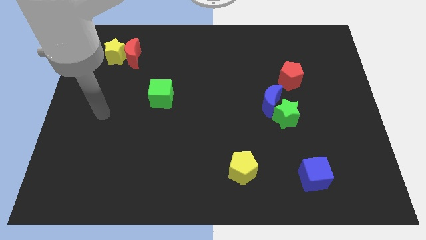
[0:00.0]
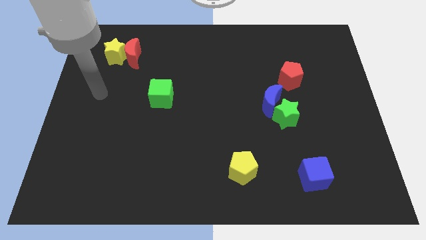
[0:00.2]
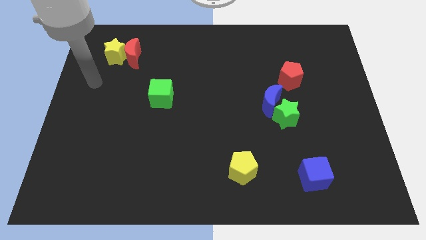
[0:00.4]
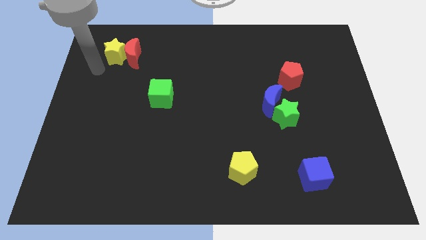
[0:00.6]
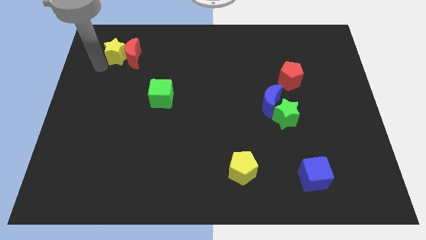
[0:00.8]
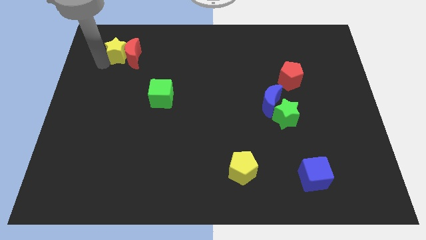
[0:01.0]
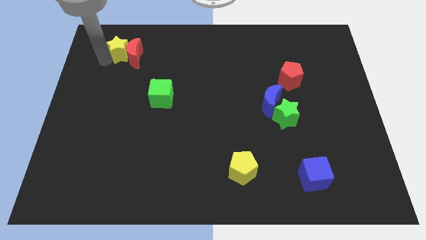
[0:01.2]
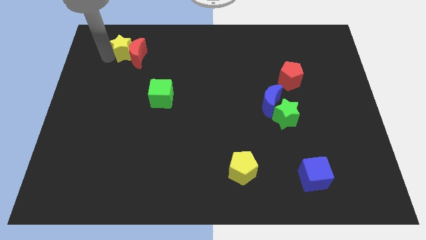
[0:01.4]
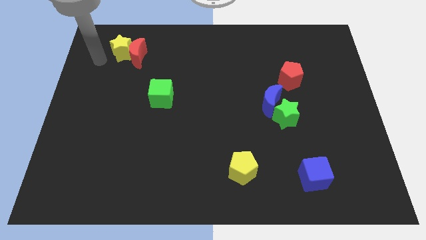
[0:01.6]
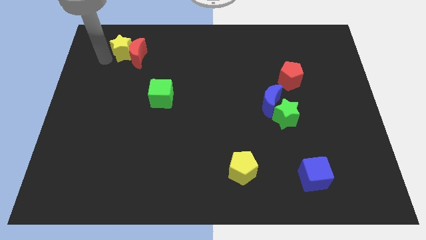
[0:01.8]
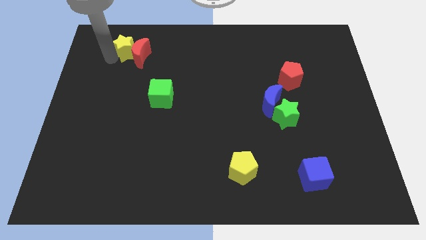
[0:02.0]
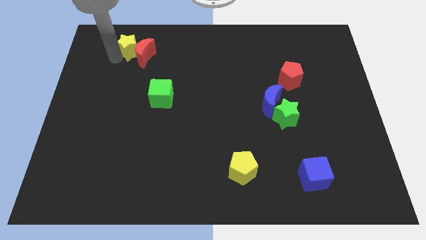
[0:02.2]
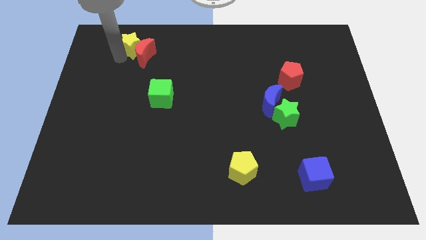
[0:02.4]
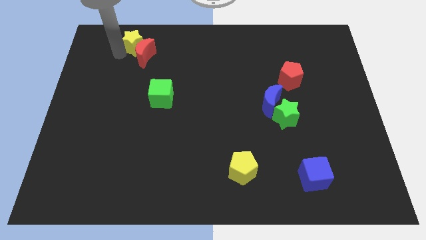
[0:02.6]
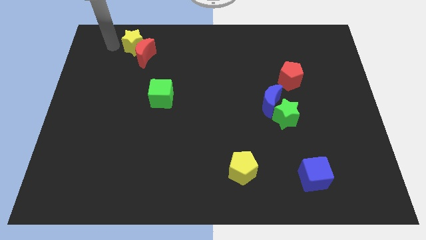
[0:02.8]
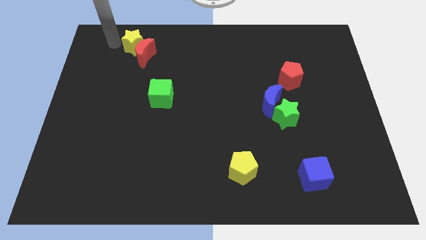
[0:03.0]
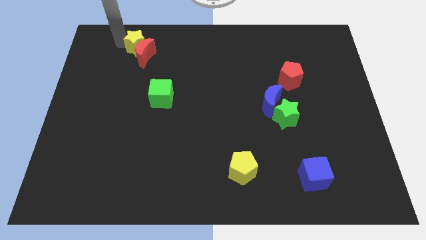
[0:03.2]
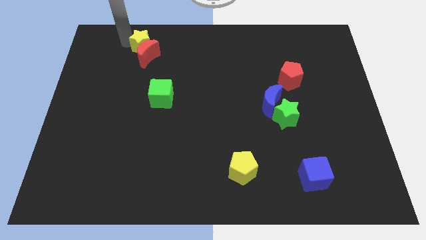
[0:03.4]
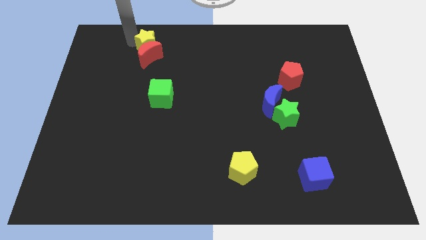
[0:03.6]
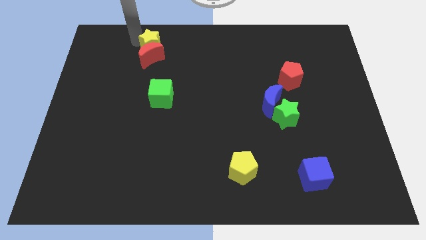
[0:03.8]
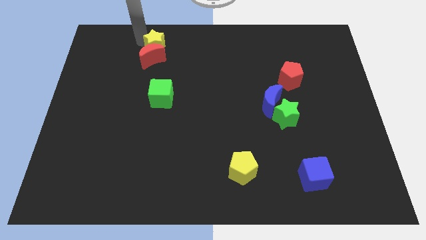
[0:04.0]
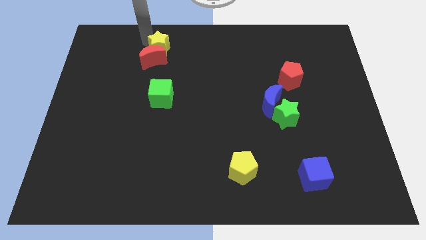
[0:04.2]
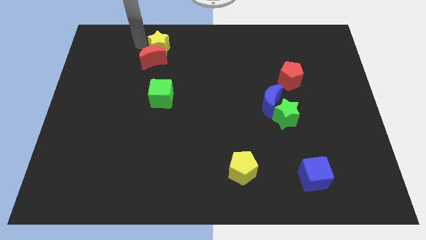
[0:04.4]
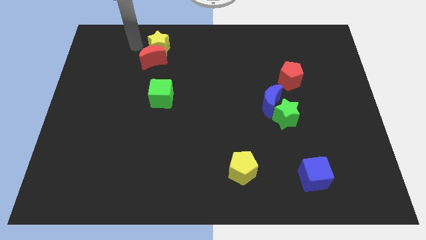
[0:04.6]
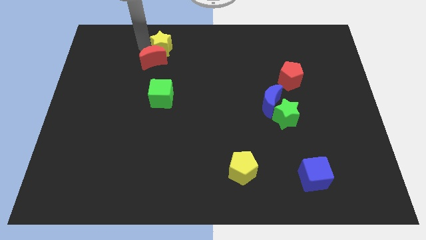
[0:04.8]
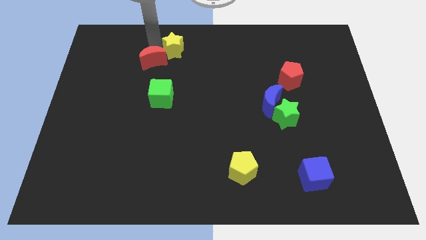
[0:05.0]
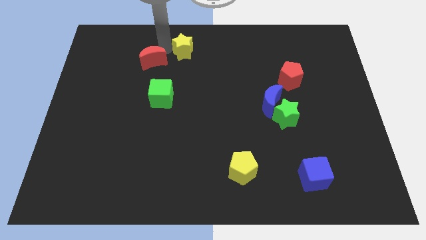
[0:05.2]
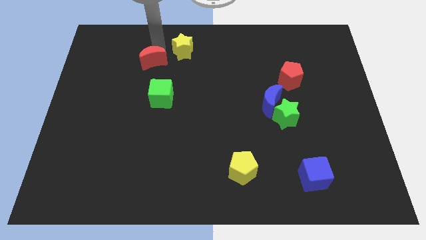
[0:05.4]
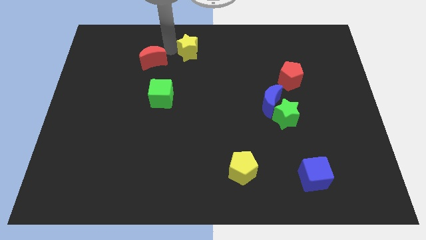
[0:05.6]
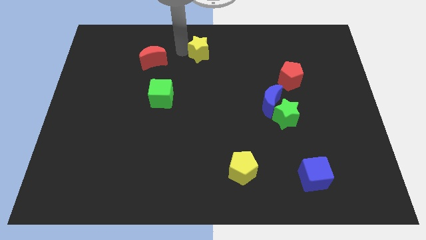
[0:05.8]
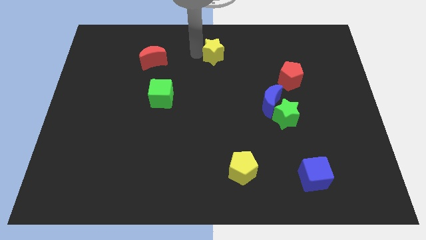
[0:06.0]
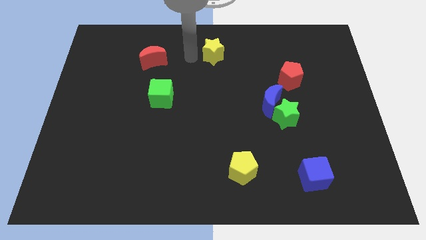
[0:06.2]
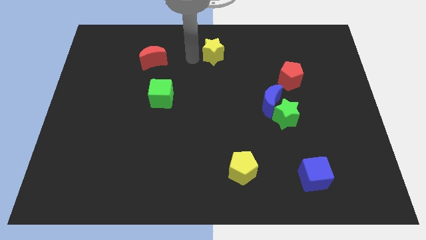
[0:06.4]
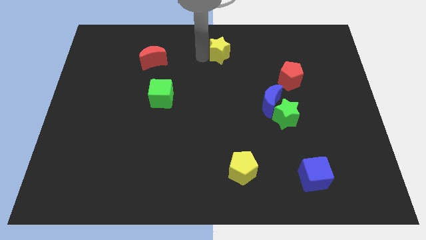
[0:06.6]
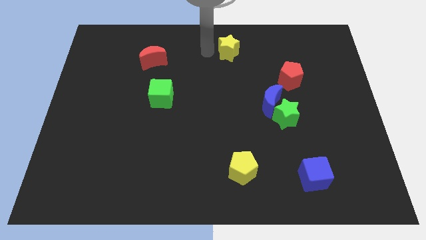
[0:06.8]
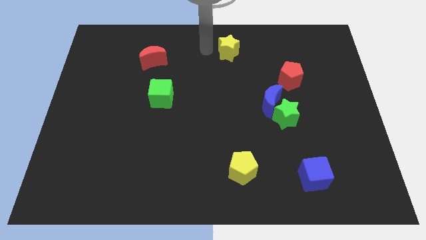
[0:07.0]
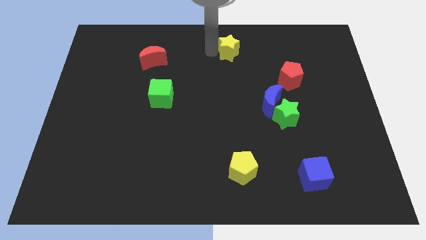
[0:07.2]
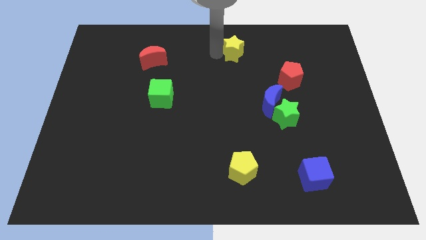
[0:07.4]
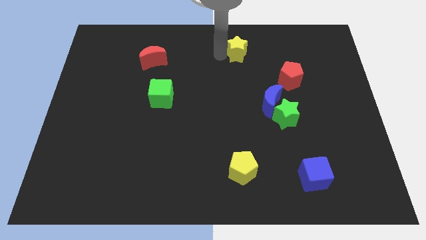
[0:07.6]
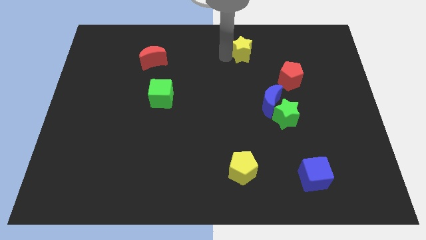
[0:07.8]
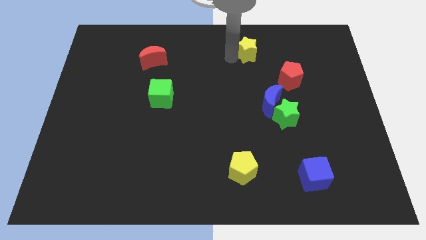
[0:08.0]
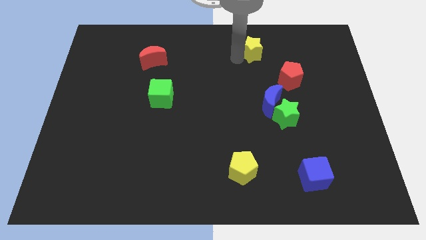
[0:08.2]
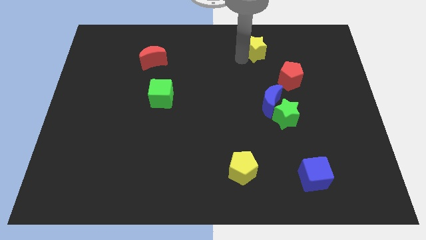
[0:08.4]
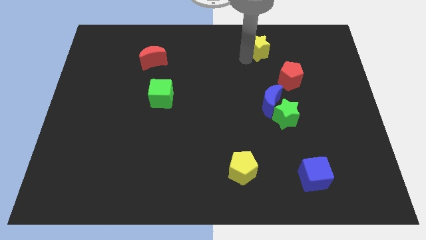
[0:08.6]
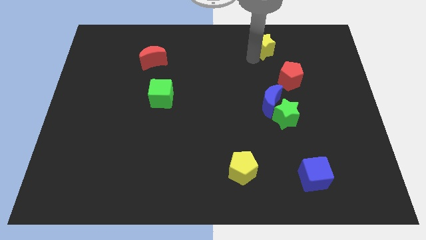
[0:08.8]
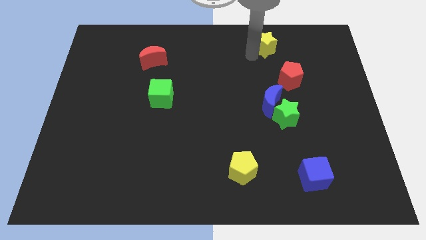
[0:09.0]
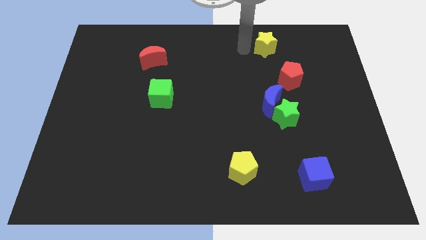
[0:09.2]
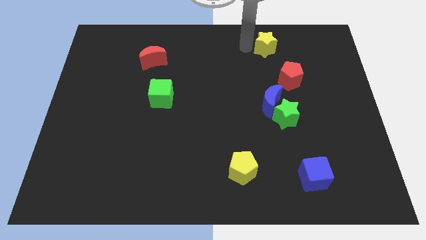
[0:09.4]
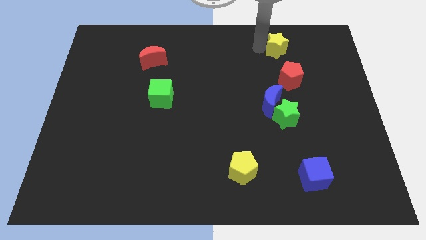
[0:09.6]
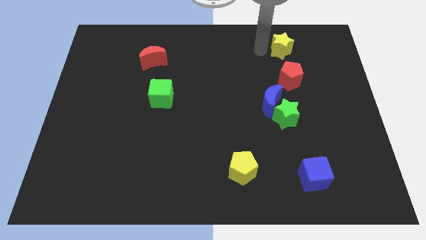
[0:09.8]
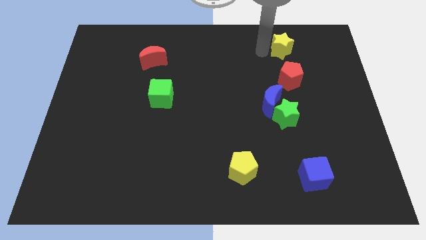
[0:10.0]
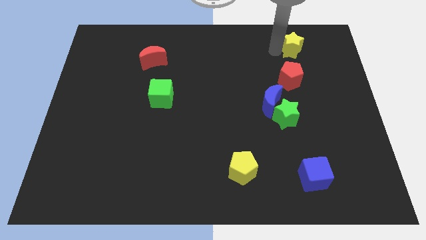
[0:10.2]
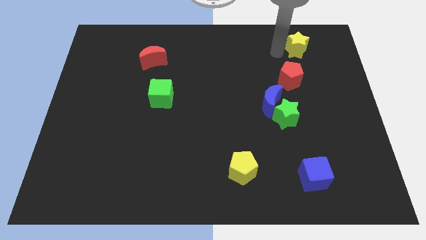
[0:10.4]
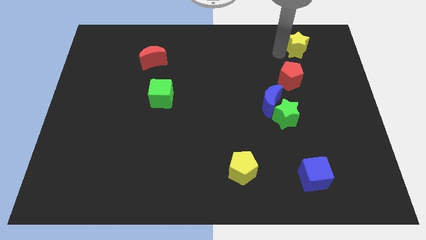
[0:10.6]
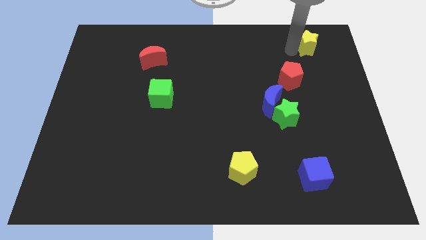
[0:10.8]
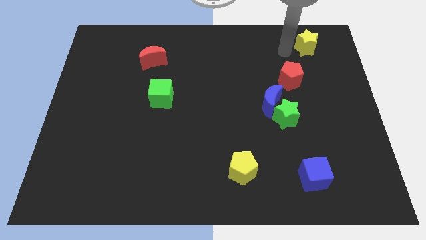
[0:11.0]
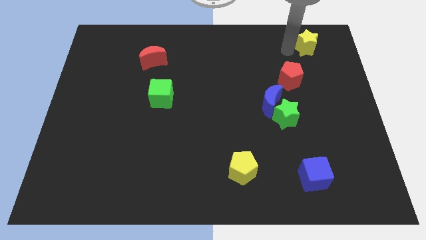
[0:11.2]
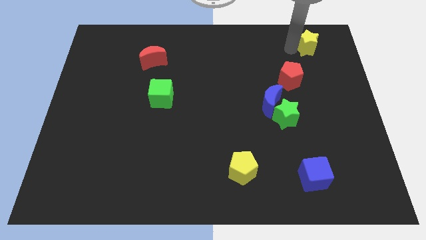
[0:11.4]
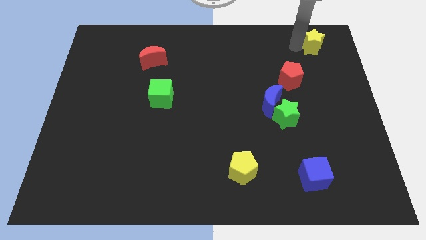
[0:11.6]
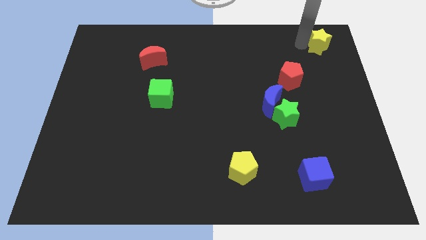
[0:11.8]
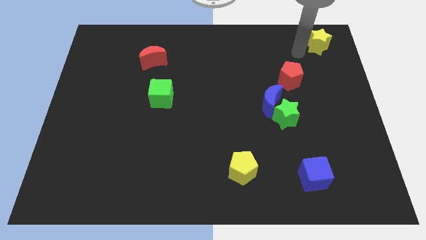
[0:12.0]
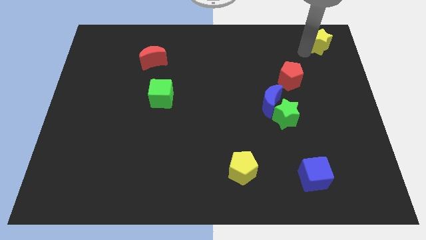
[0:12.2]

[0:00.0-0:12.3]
move the yellow star to the top right of the board

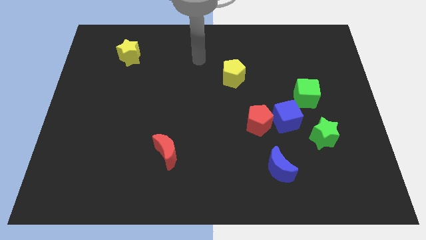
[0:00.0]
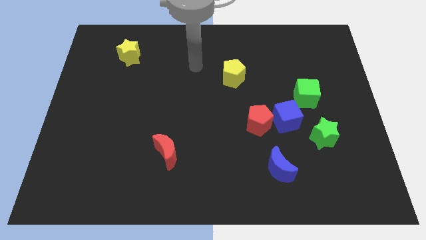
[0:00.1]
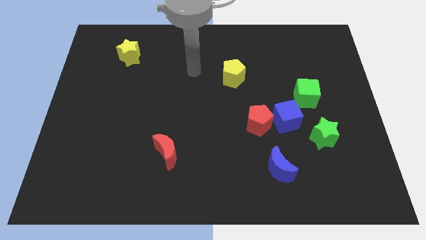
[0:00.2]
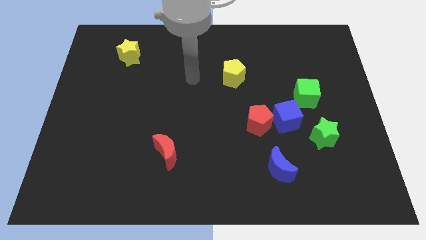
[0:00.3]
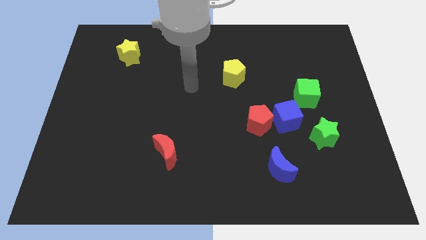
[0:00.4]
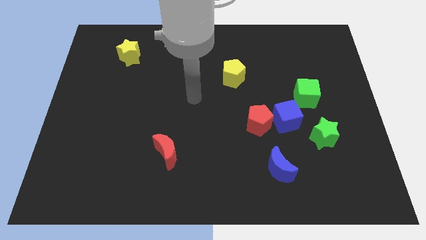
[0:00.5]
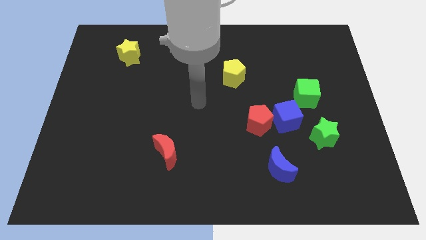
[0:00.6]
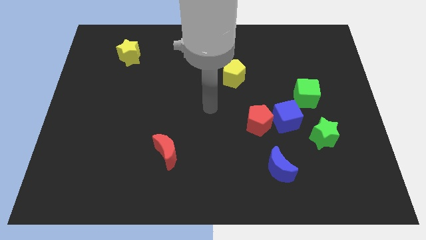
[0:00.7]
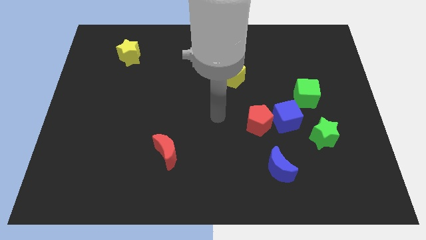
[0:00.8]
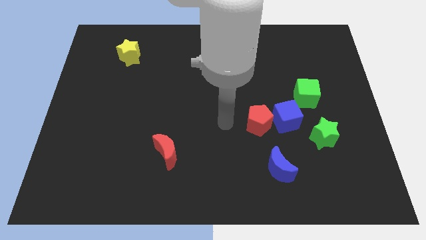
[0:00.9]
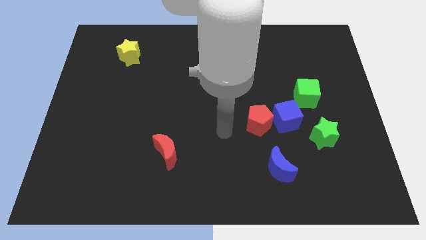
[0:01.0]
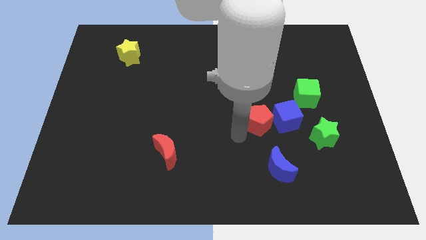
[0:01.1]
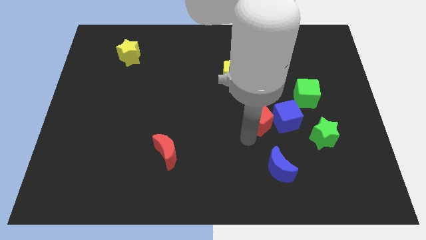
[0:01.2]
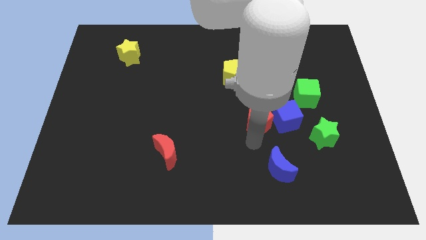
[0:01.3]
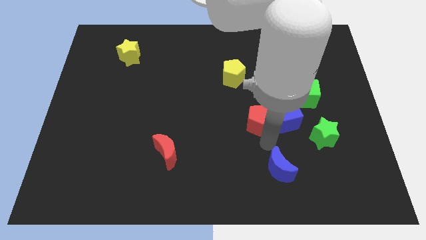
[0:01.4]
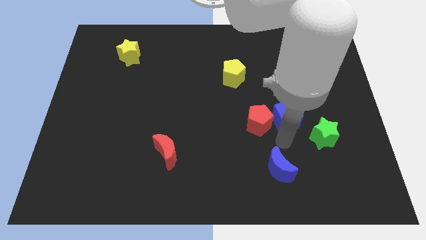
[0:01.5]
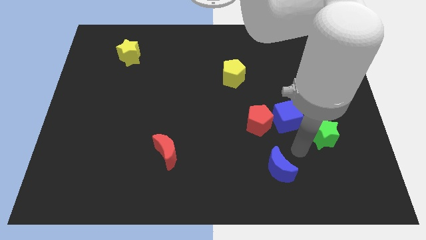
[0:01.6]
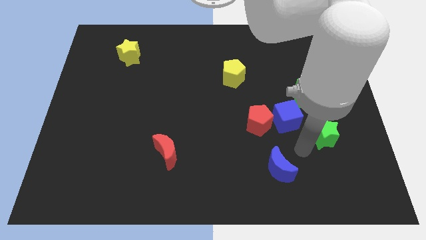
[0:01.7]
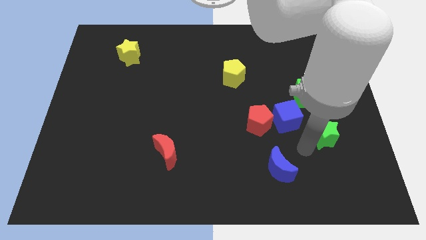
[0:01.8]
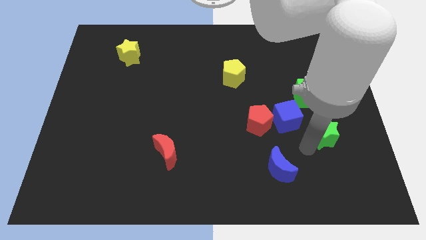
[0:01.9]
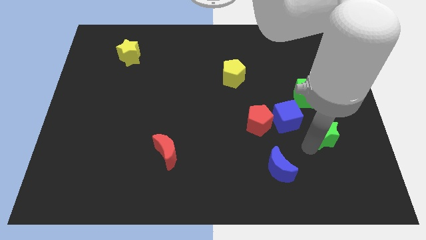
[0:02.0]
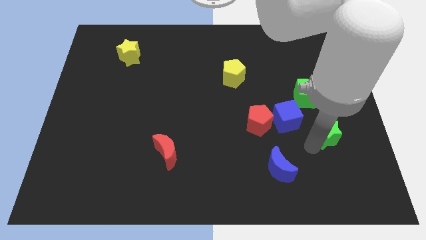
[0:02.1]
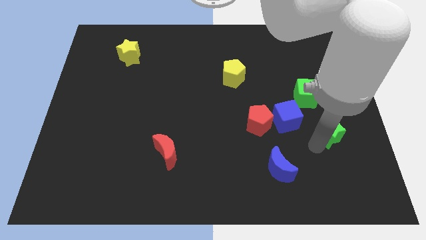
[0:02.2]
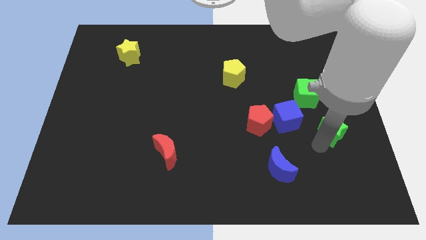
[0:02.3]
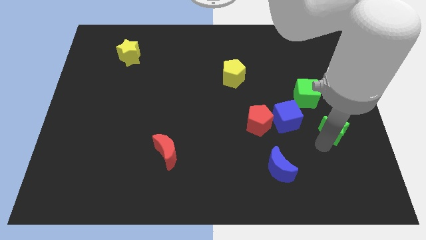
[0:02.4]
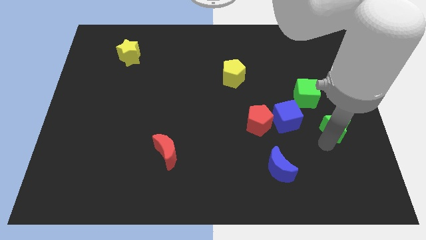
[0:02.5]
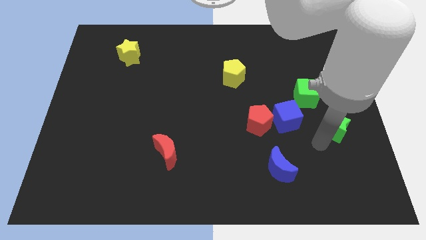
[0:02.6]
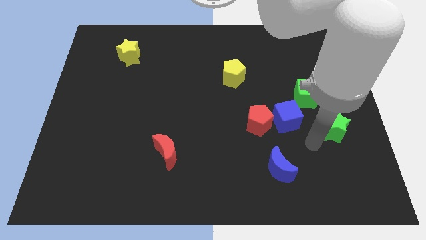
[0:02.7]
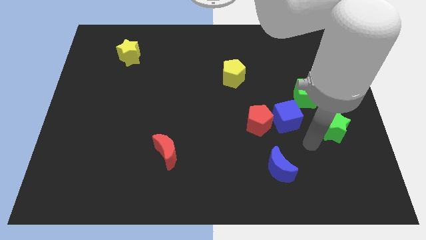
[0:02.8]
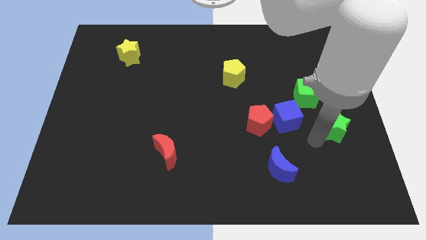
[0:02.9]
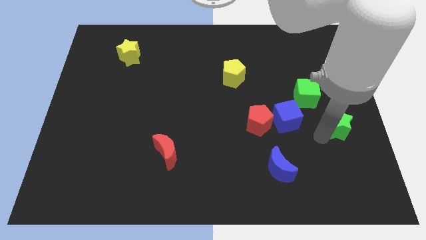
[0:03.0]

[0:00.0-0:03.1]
move the green star to the right side
